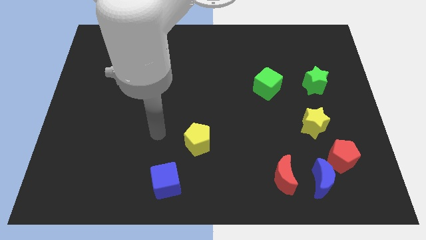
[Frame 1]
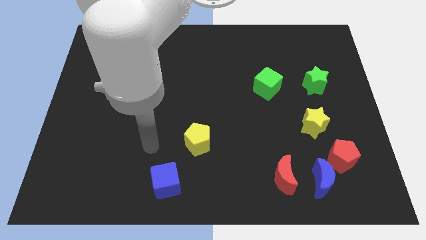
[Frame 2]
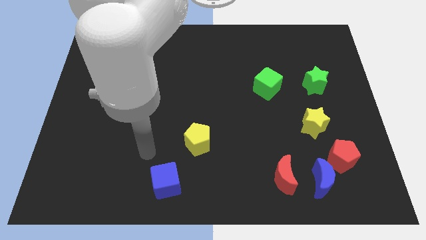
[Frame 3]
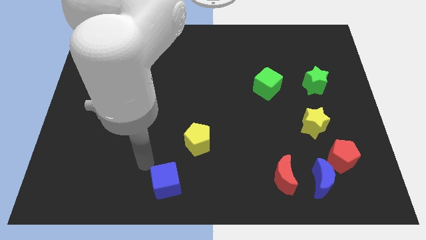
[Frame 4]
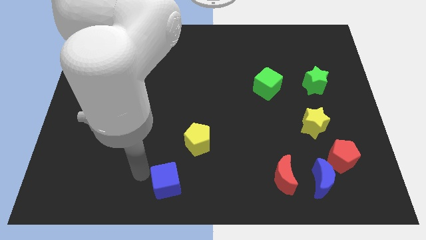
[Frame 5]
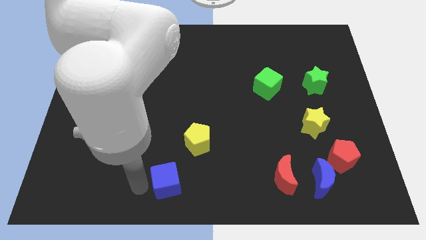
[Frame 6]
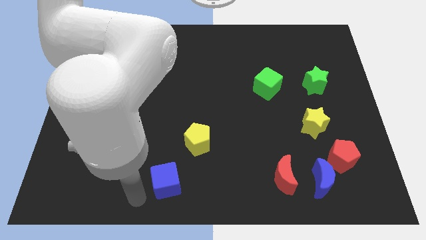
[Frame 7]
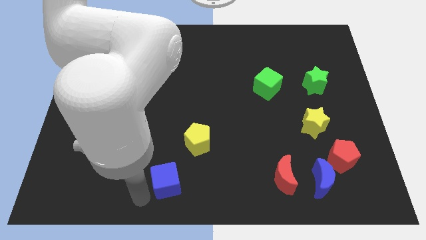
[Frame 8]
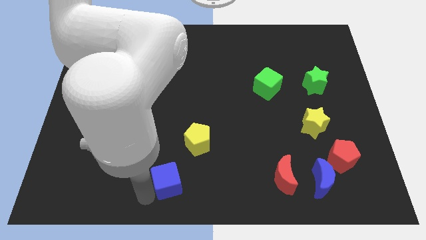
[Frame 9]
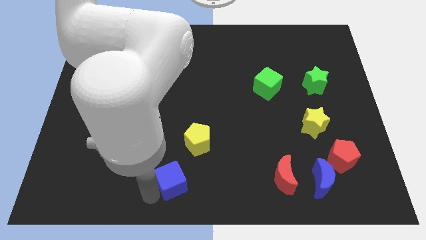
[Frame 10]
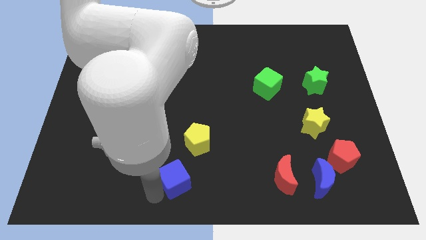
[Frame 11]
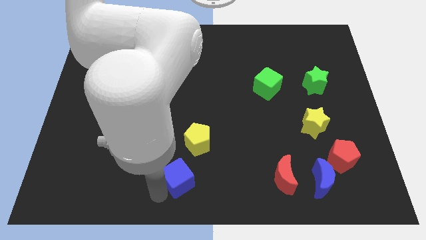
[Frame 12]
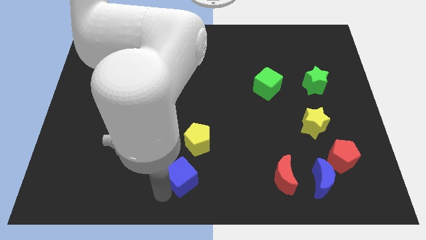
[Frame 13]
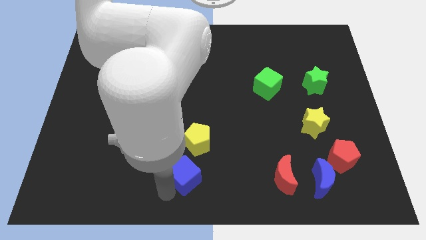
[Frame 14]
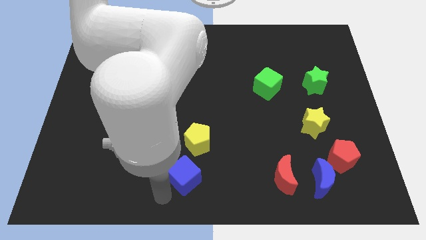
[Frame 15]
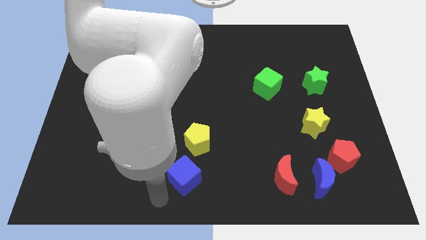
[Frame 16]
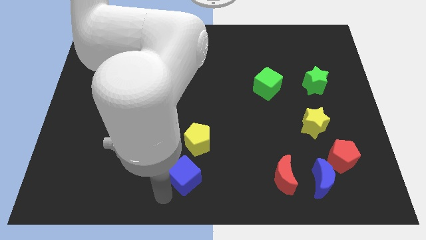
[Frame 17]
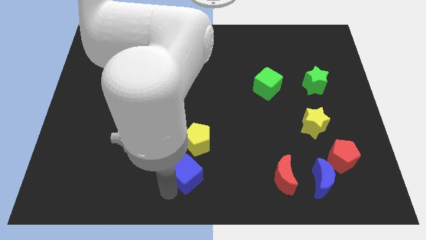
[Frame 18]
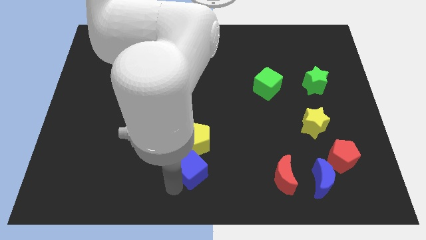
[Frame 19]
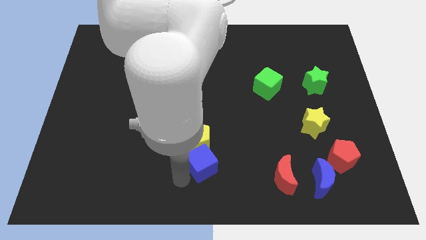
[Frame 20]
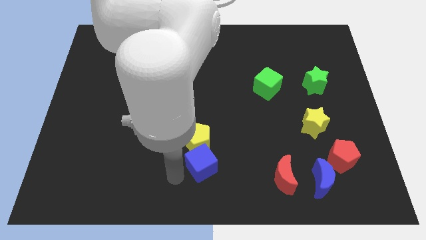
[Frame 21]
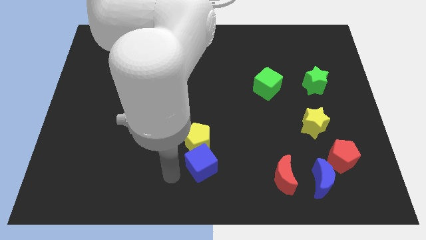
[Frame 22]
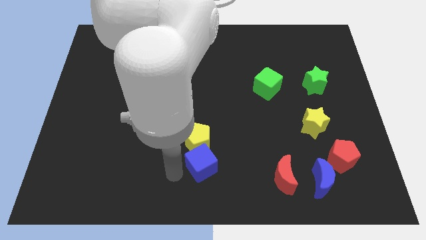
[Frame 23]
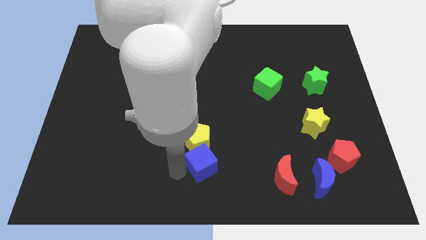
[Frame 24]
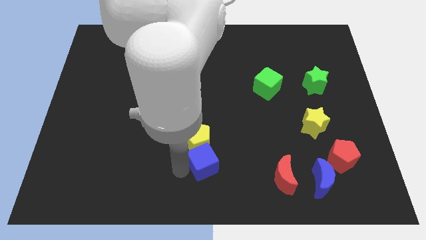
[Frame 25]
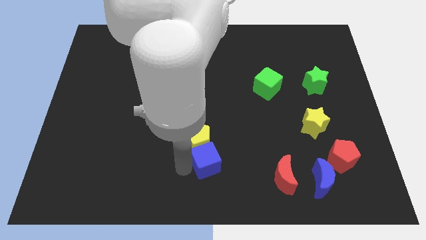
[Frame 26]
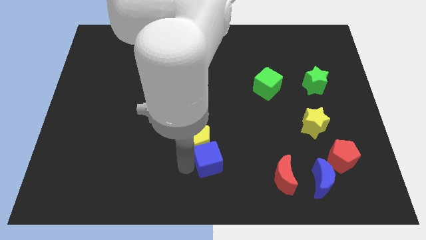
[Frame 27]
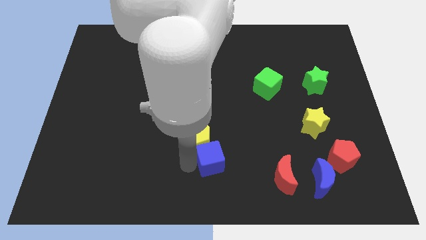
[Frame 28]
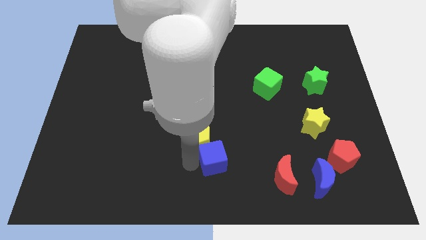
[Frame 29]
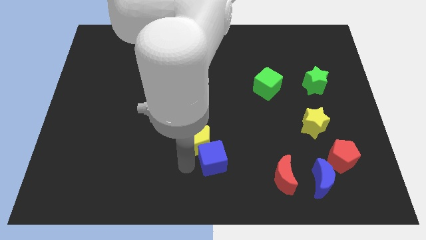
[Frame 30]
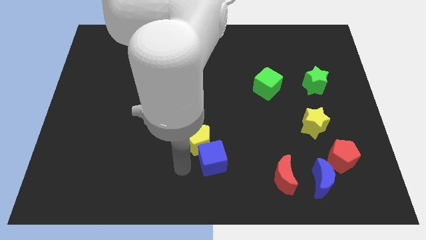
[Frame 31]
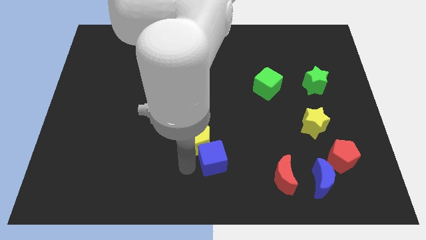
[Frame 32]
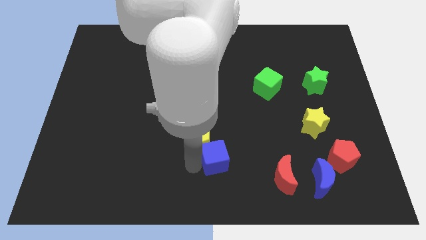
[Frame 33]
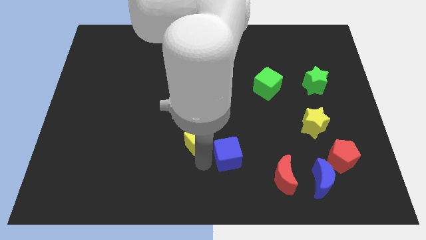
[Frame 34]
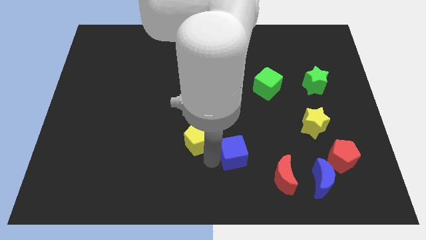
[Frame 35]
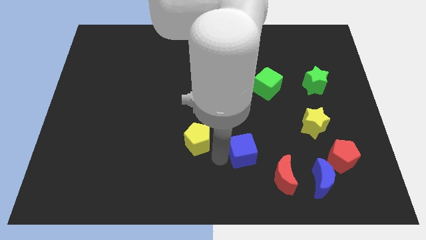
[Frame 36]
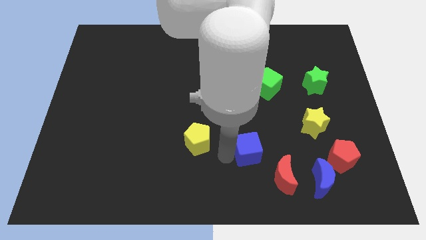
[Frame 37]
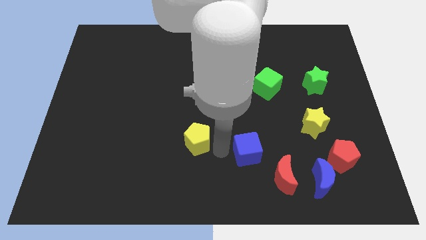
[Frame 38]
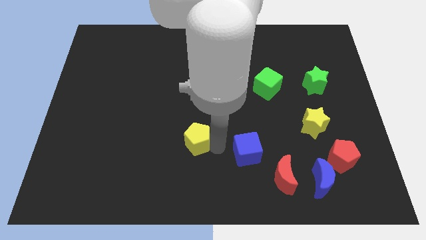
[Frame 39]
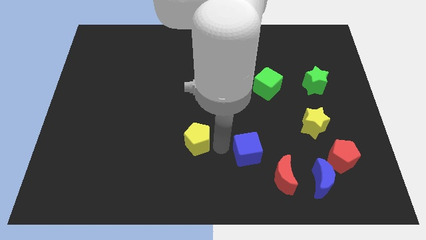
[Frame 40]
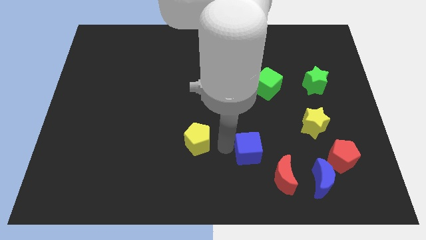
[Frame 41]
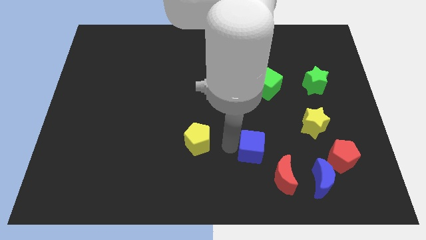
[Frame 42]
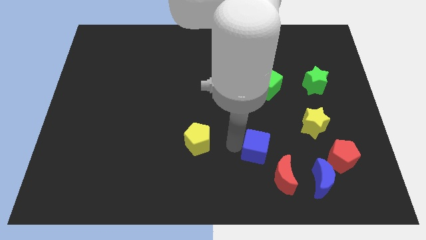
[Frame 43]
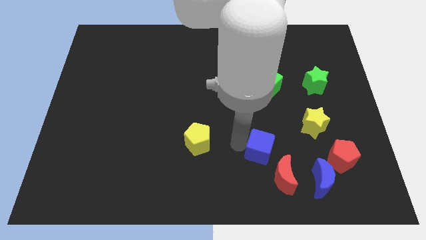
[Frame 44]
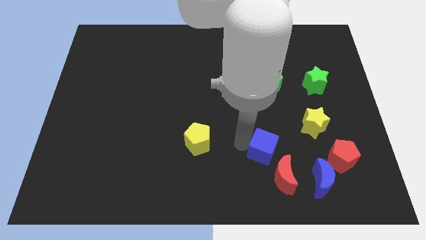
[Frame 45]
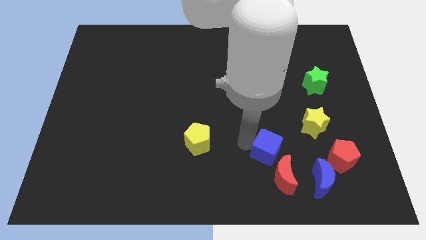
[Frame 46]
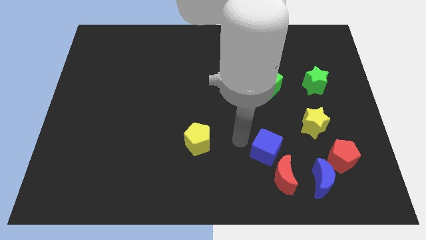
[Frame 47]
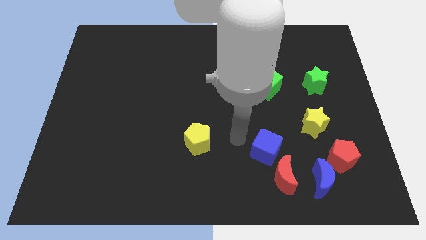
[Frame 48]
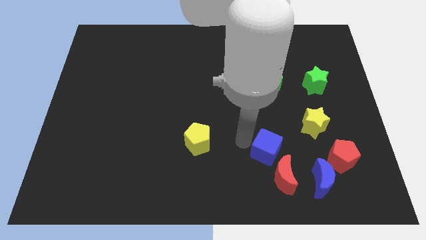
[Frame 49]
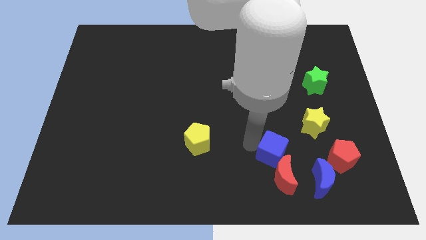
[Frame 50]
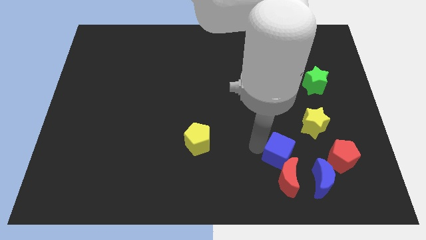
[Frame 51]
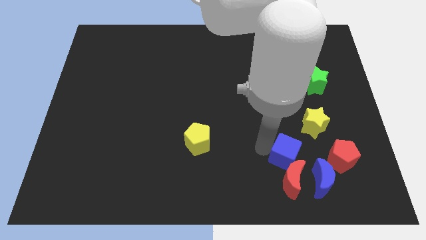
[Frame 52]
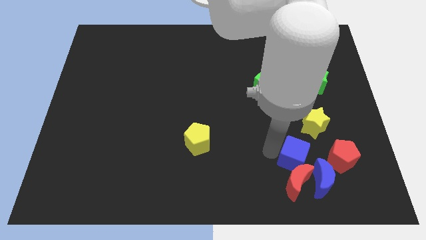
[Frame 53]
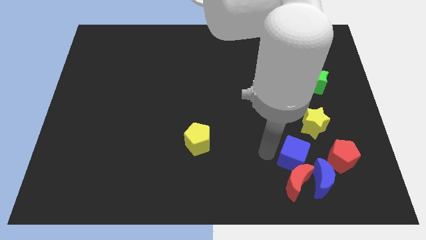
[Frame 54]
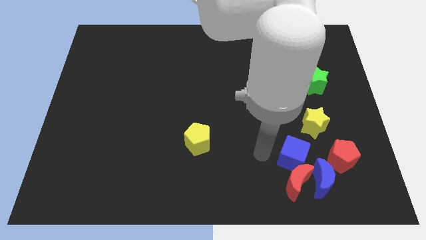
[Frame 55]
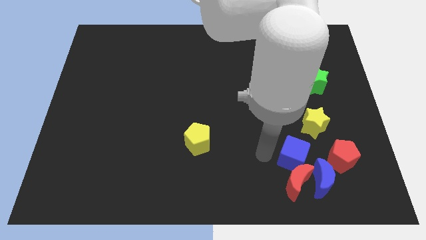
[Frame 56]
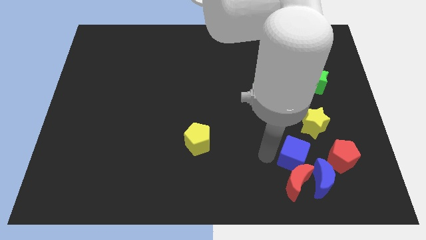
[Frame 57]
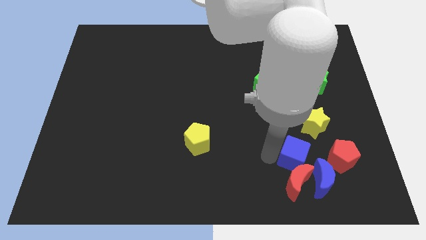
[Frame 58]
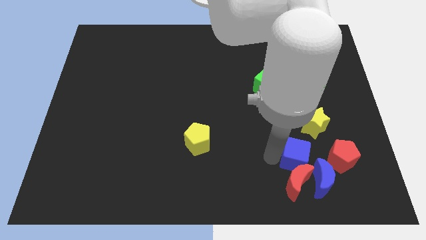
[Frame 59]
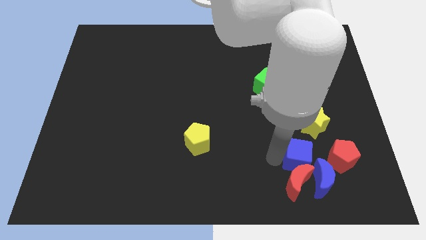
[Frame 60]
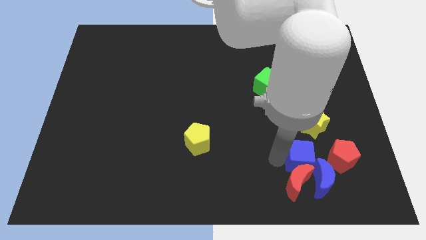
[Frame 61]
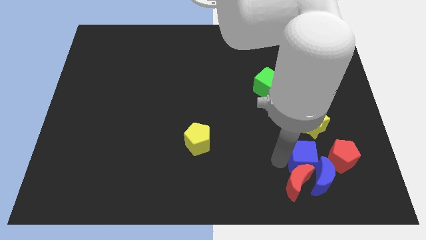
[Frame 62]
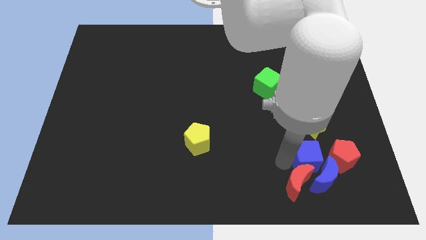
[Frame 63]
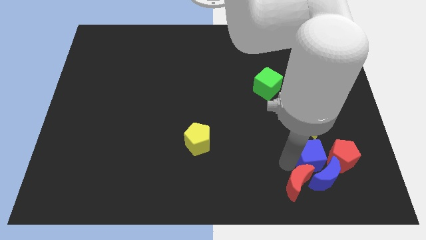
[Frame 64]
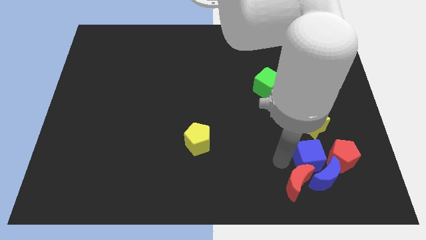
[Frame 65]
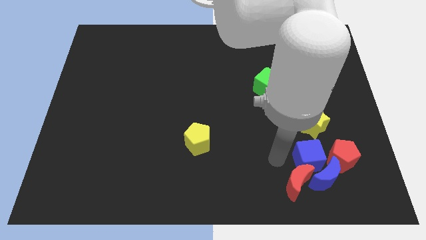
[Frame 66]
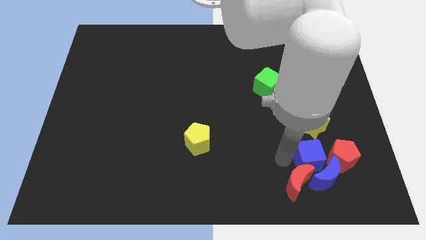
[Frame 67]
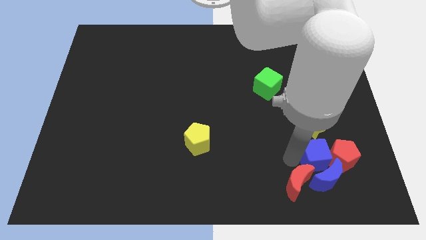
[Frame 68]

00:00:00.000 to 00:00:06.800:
push the blue cube to the red pentagon

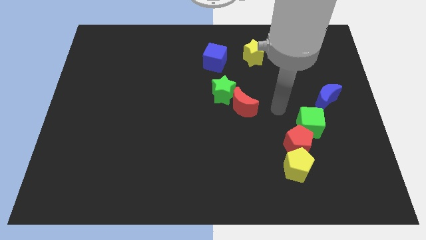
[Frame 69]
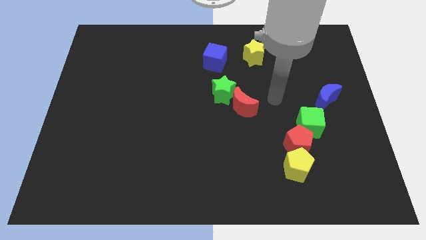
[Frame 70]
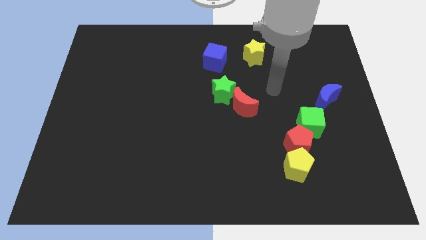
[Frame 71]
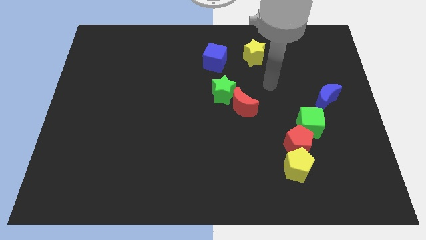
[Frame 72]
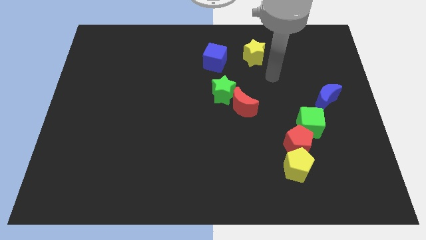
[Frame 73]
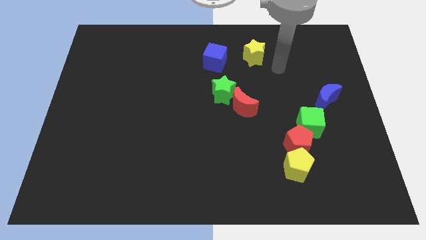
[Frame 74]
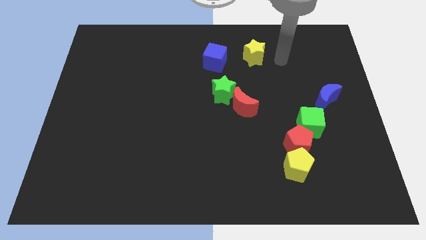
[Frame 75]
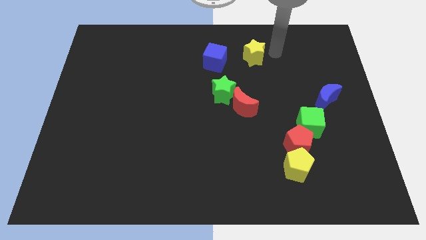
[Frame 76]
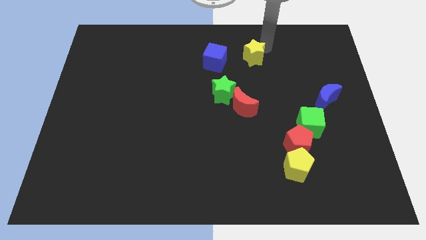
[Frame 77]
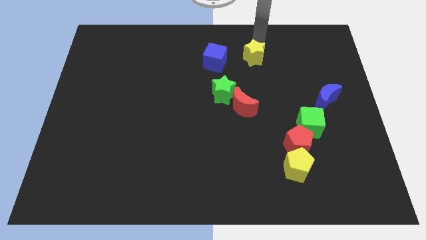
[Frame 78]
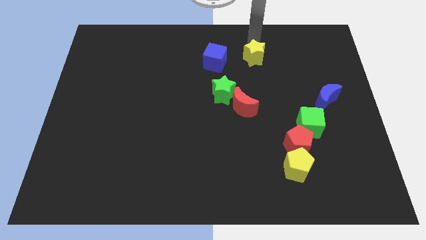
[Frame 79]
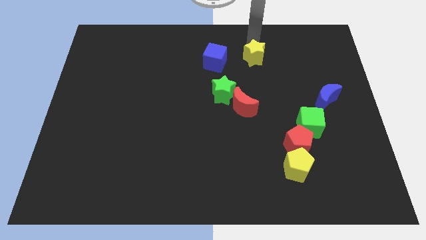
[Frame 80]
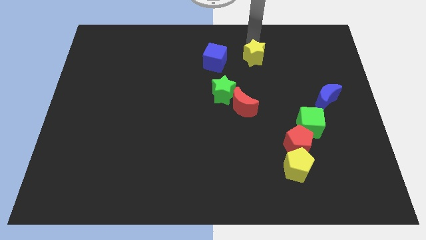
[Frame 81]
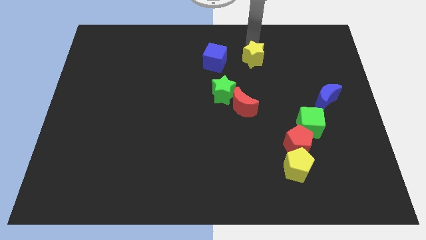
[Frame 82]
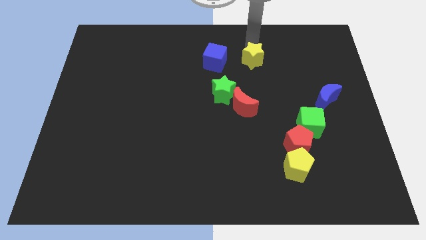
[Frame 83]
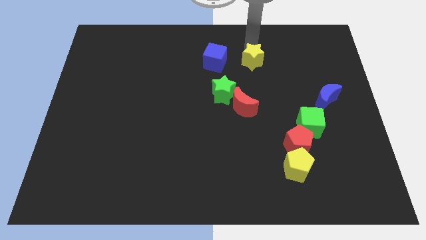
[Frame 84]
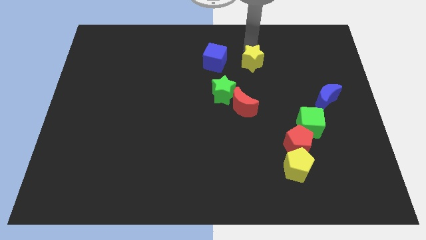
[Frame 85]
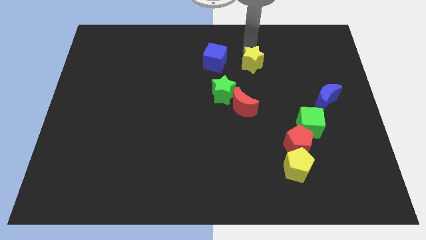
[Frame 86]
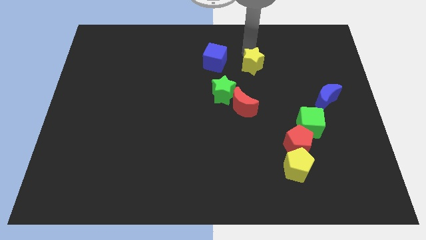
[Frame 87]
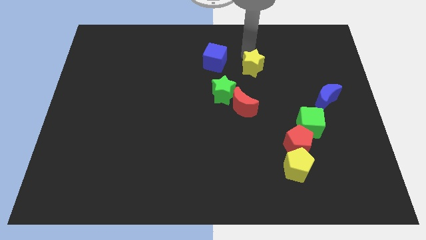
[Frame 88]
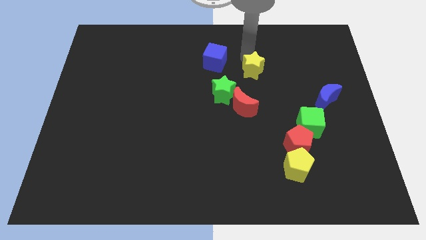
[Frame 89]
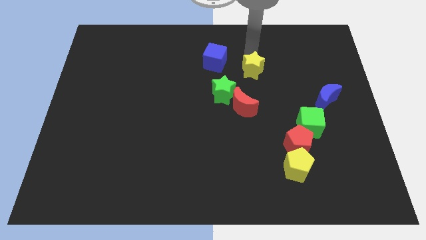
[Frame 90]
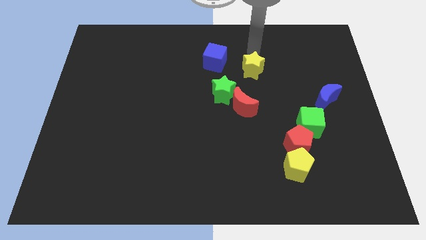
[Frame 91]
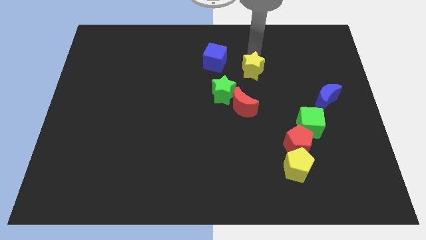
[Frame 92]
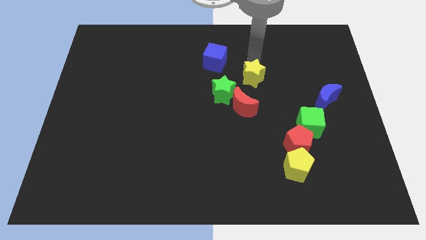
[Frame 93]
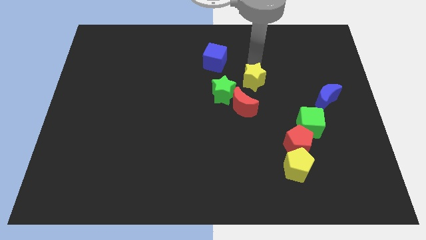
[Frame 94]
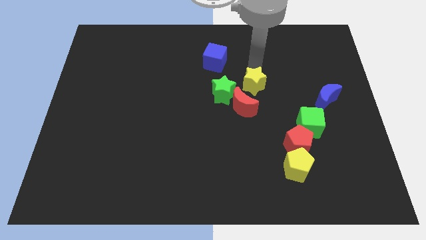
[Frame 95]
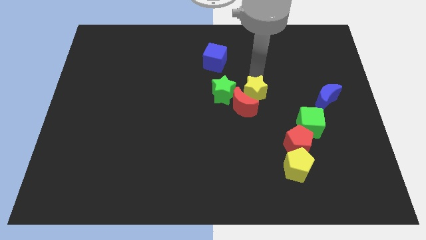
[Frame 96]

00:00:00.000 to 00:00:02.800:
push the yellow star towards the red moon
